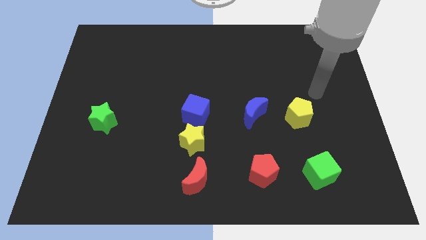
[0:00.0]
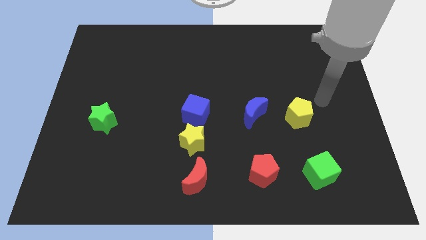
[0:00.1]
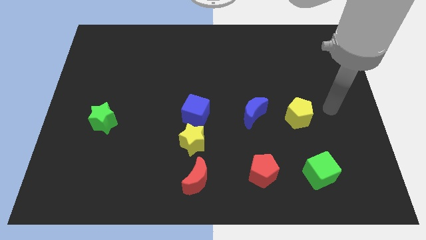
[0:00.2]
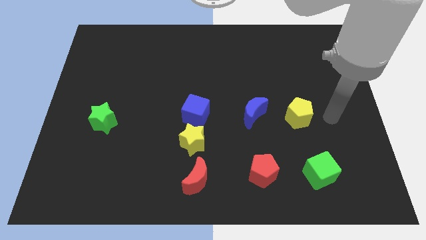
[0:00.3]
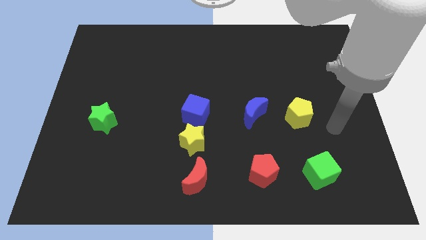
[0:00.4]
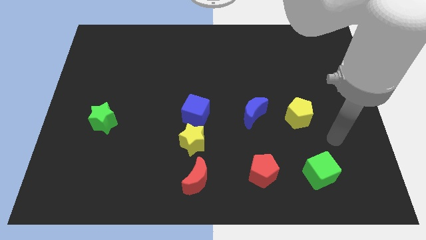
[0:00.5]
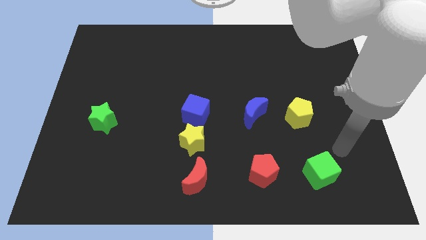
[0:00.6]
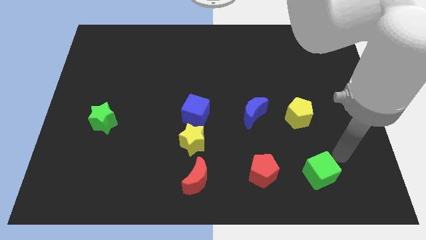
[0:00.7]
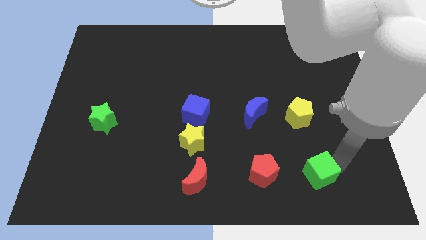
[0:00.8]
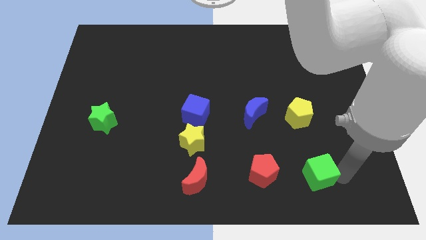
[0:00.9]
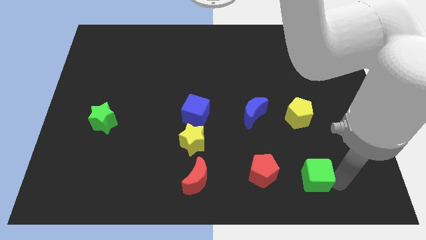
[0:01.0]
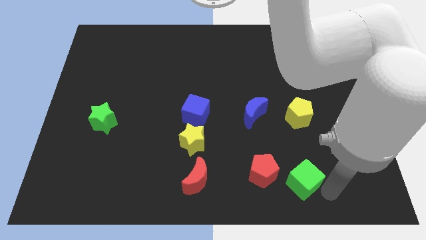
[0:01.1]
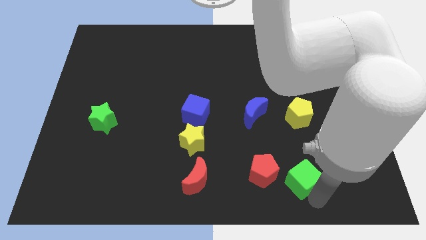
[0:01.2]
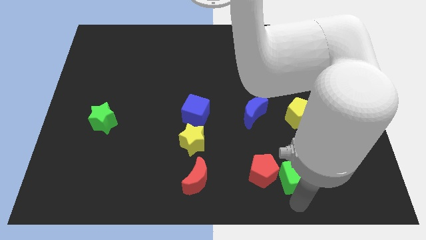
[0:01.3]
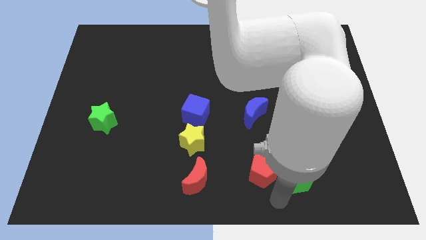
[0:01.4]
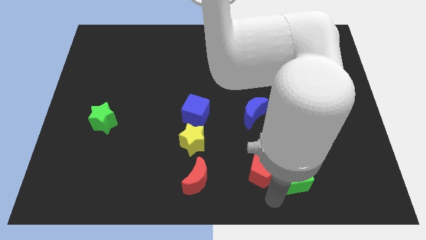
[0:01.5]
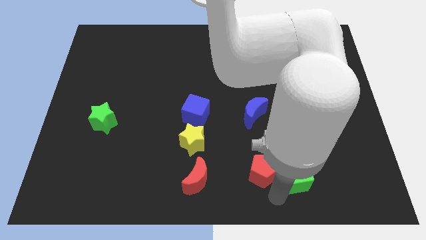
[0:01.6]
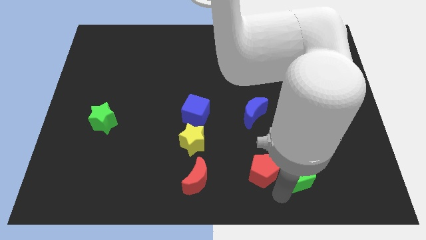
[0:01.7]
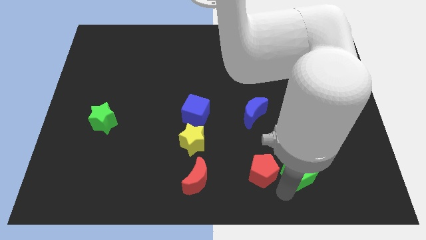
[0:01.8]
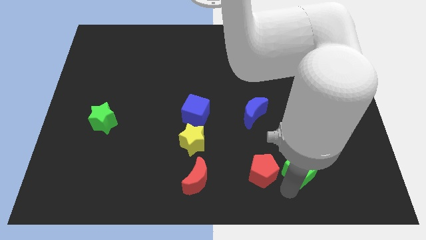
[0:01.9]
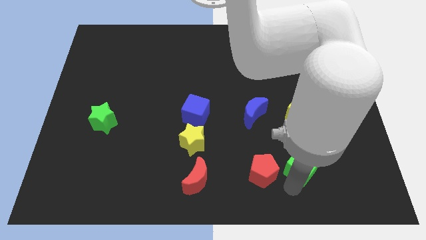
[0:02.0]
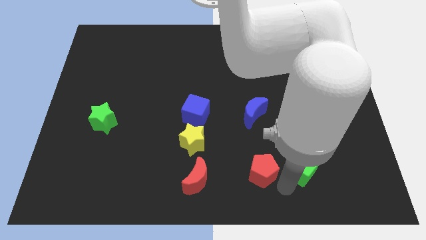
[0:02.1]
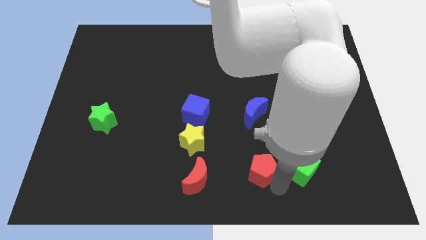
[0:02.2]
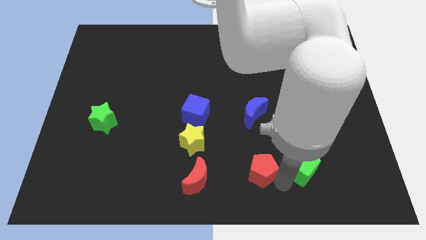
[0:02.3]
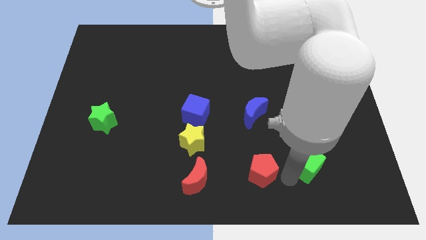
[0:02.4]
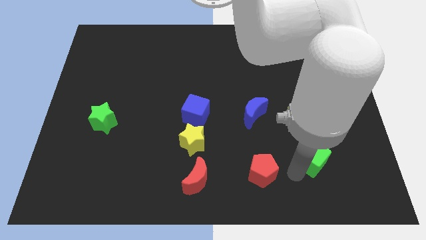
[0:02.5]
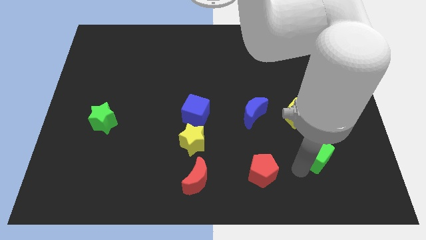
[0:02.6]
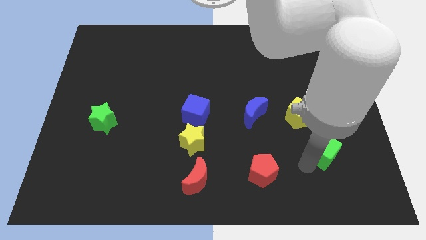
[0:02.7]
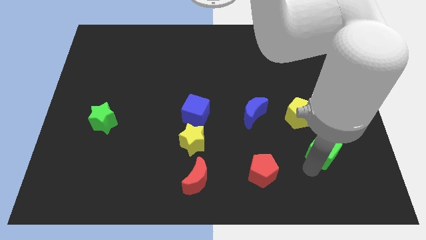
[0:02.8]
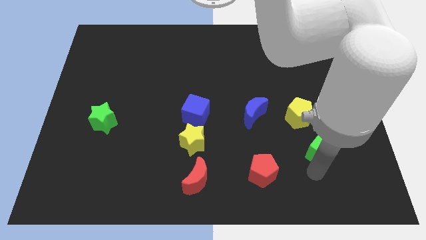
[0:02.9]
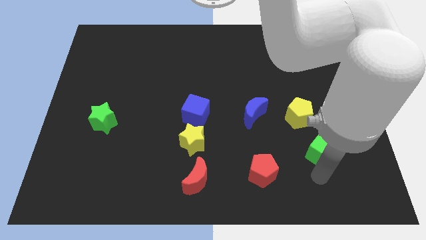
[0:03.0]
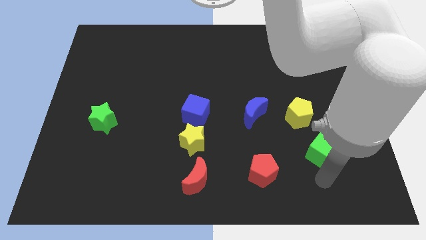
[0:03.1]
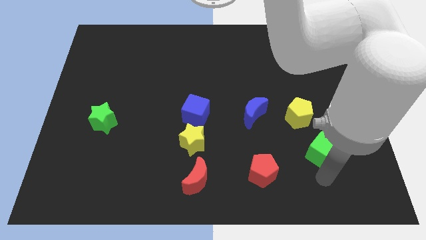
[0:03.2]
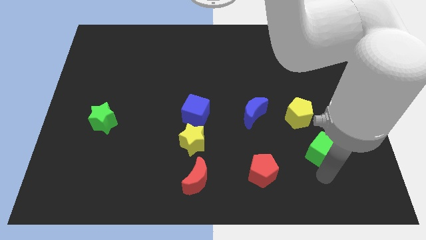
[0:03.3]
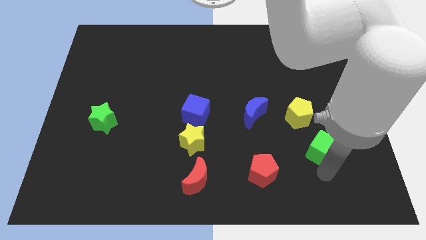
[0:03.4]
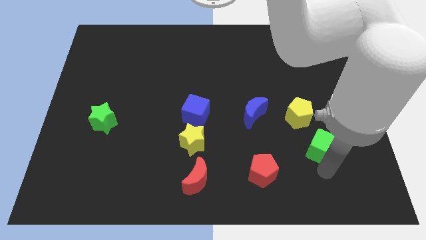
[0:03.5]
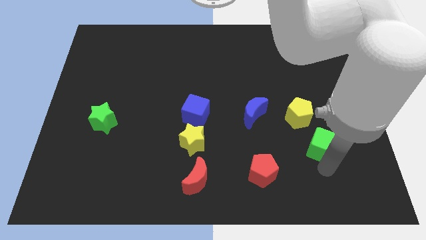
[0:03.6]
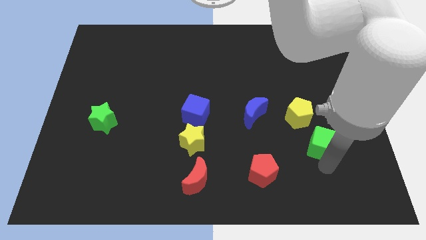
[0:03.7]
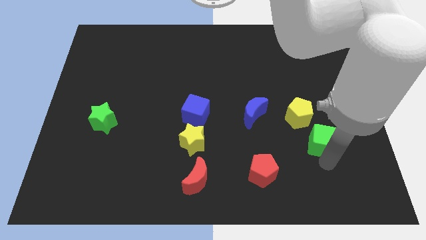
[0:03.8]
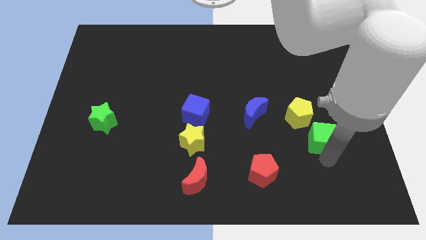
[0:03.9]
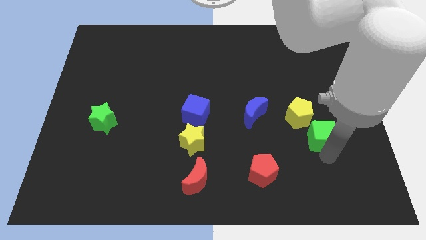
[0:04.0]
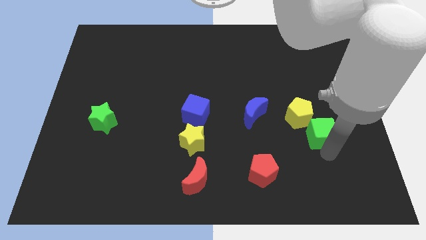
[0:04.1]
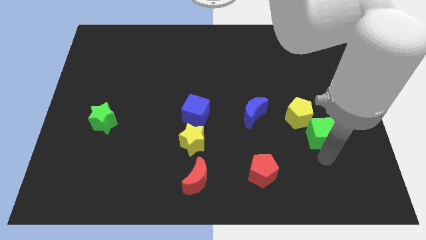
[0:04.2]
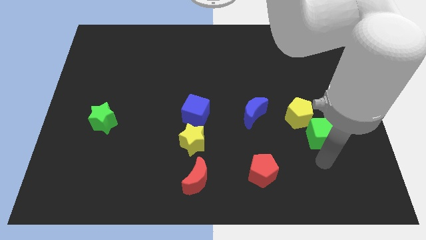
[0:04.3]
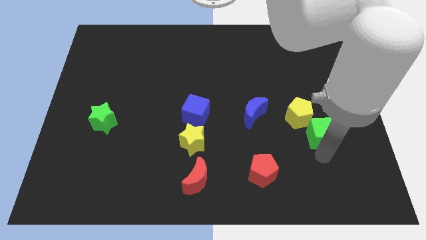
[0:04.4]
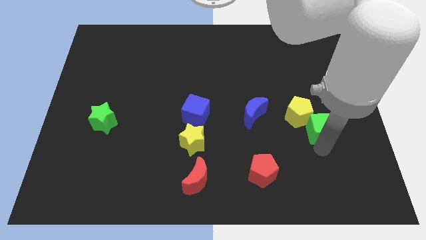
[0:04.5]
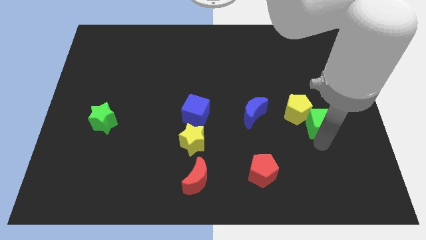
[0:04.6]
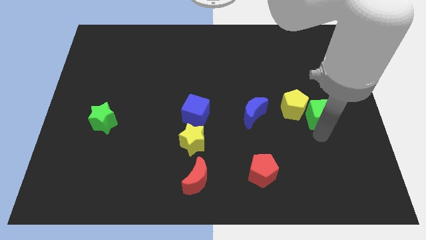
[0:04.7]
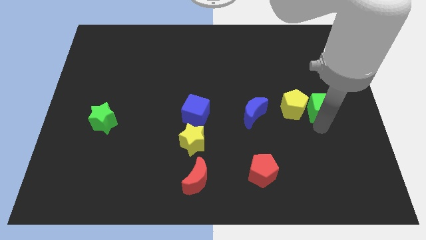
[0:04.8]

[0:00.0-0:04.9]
put the green cube to the top right of the yellow pentagon

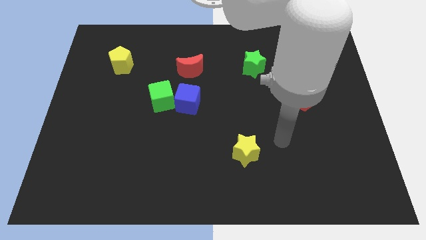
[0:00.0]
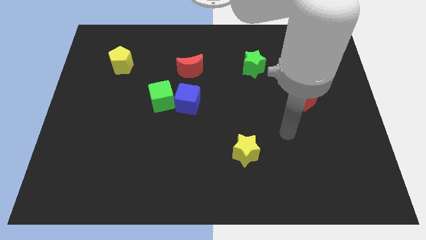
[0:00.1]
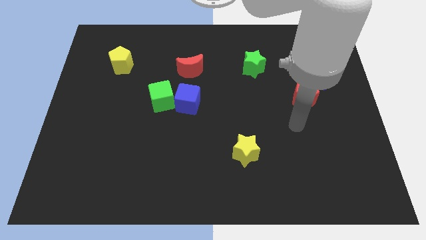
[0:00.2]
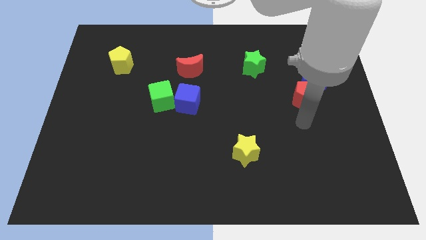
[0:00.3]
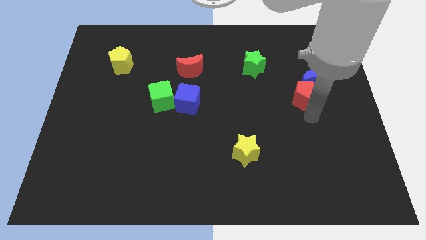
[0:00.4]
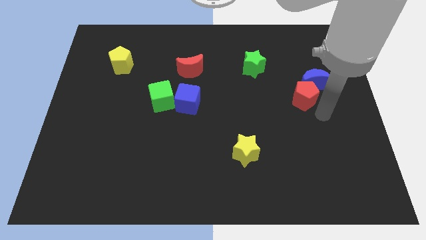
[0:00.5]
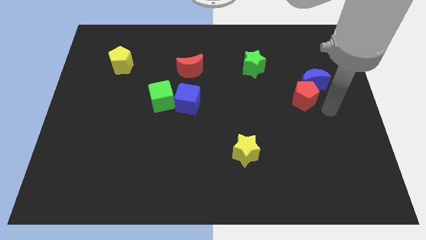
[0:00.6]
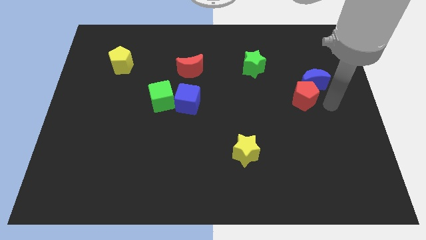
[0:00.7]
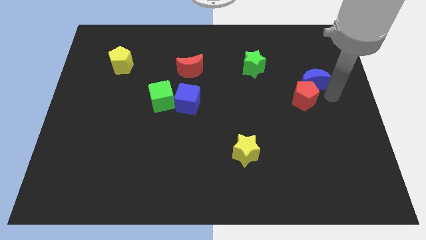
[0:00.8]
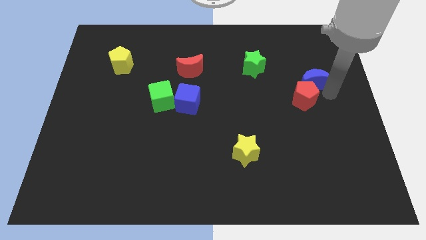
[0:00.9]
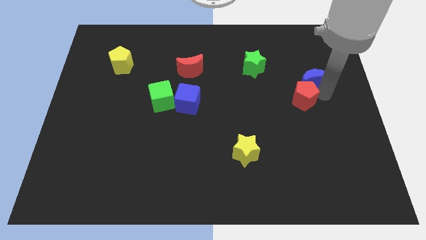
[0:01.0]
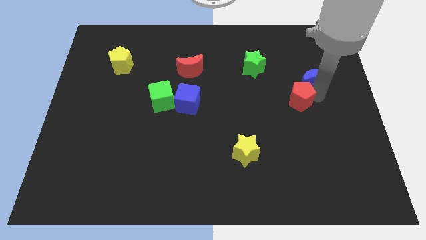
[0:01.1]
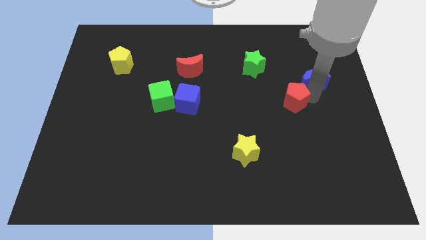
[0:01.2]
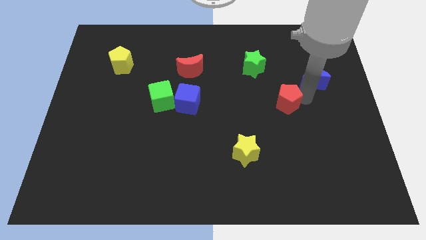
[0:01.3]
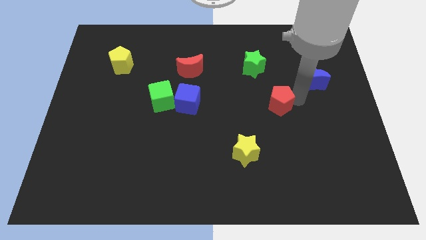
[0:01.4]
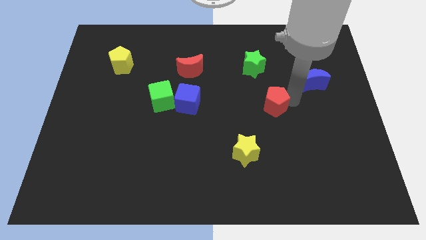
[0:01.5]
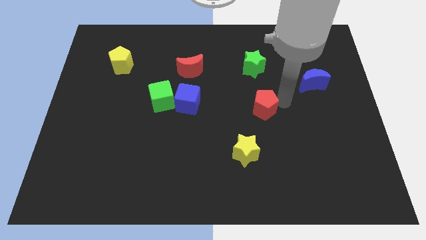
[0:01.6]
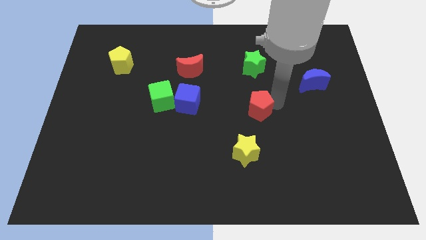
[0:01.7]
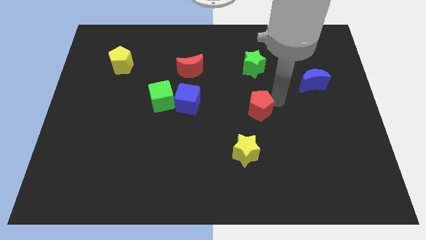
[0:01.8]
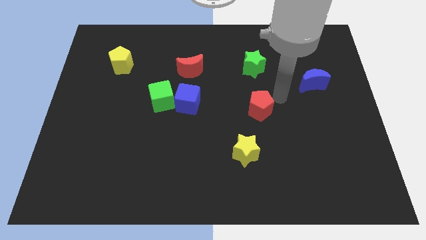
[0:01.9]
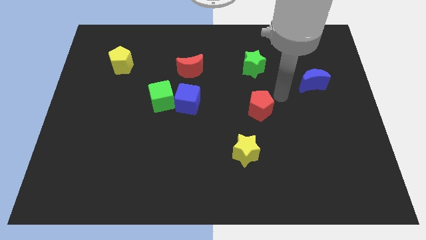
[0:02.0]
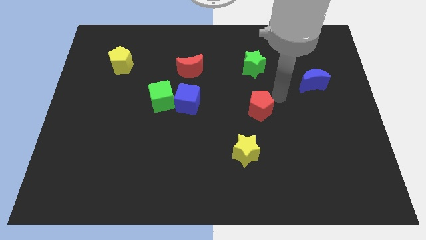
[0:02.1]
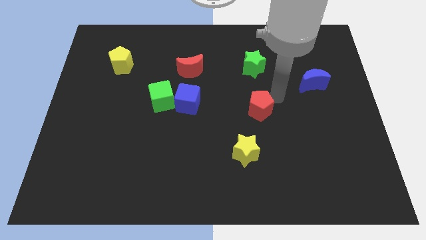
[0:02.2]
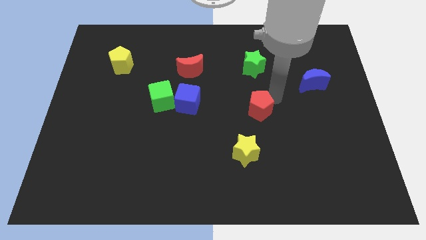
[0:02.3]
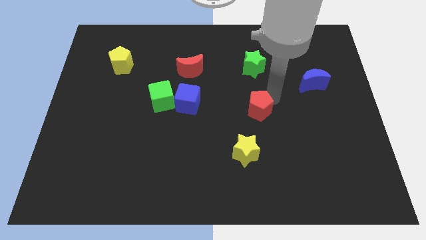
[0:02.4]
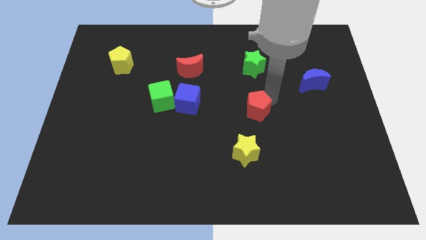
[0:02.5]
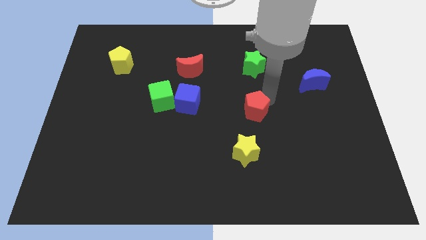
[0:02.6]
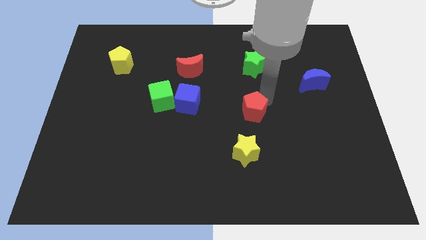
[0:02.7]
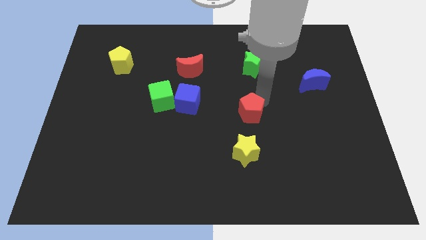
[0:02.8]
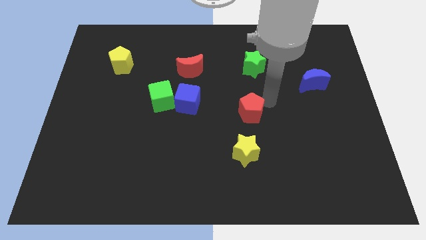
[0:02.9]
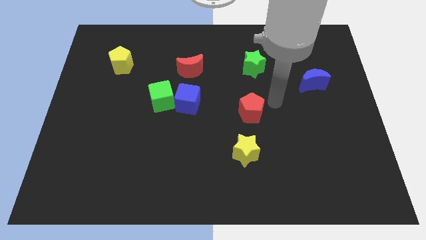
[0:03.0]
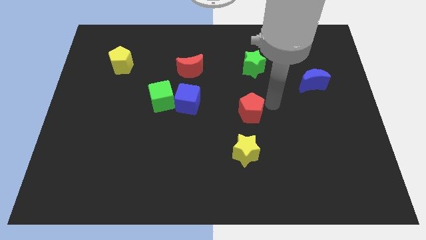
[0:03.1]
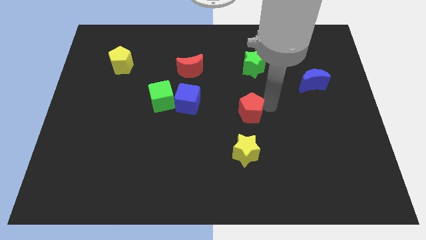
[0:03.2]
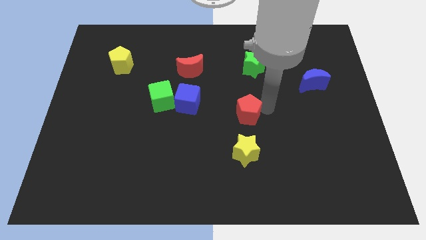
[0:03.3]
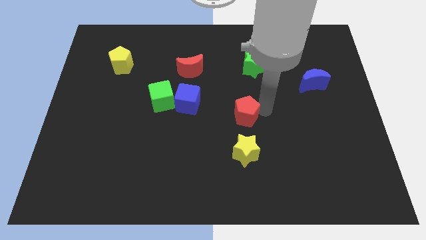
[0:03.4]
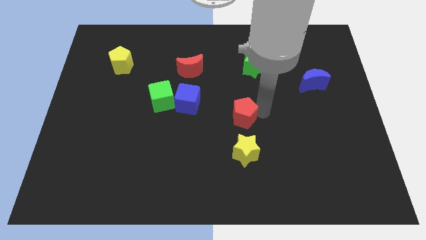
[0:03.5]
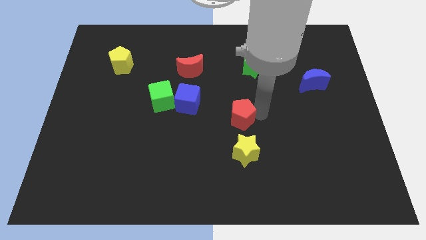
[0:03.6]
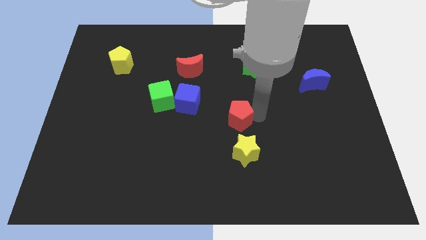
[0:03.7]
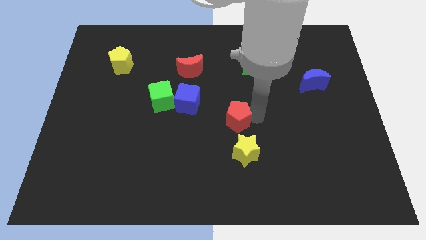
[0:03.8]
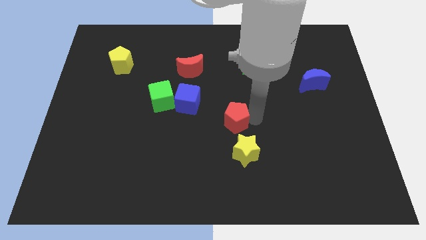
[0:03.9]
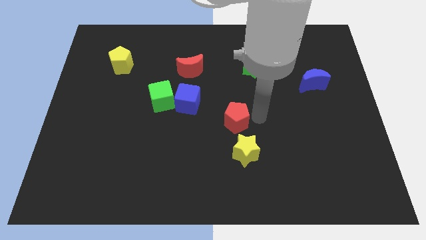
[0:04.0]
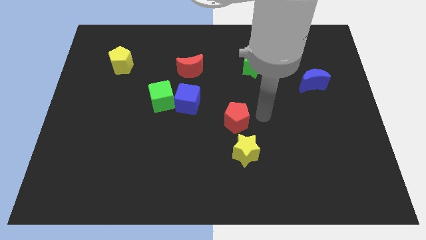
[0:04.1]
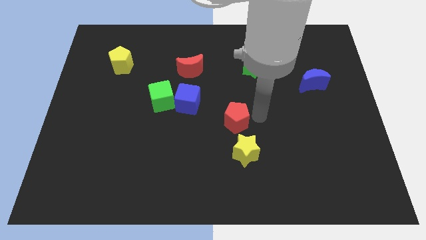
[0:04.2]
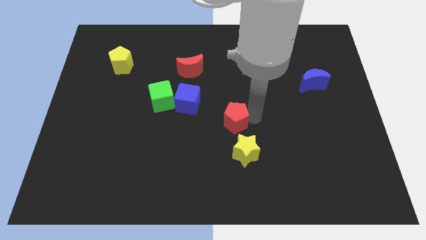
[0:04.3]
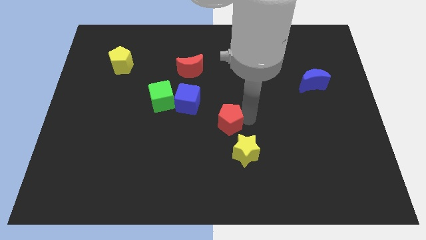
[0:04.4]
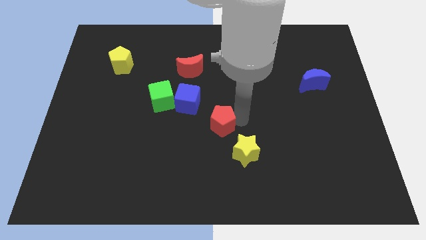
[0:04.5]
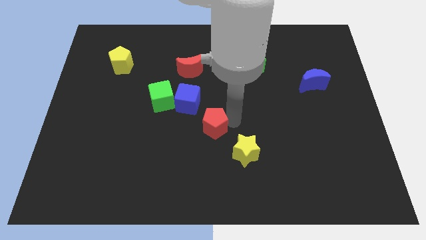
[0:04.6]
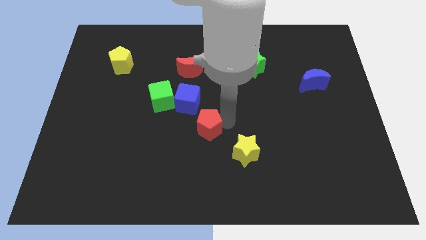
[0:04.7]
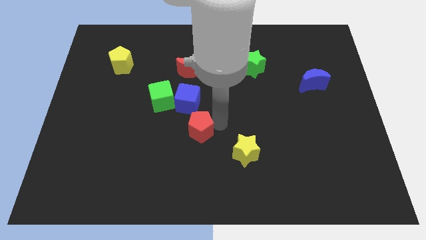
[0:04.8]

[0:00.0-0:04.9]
put the red pentagon below the blue cube
